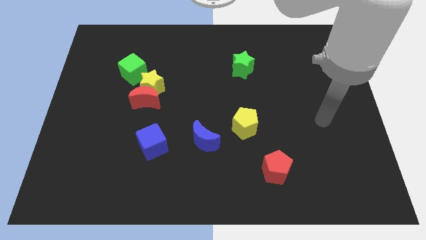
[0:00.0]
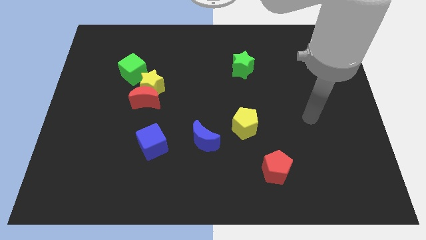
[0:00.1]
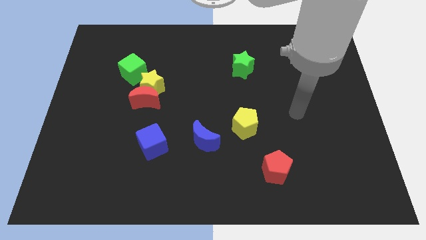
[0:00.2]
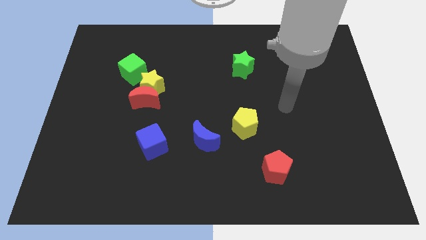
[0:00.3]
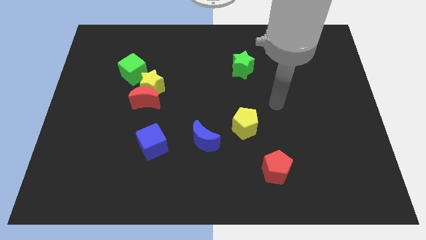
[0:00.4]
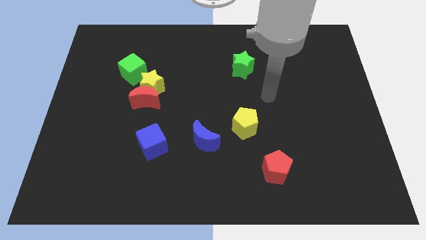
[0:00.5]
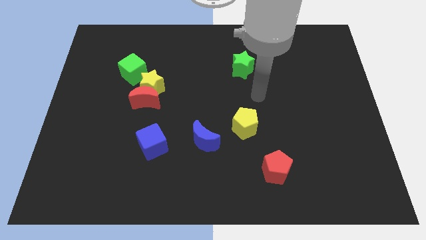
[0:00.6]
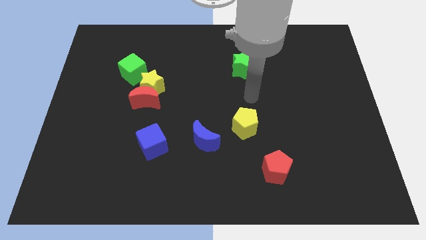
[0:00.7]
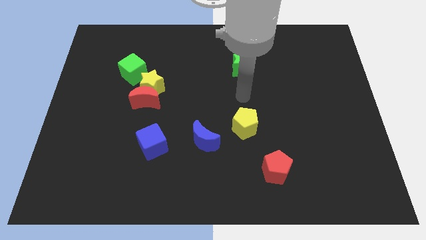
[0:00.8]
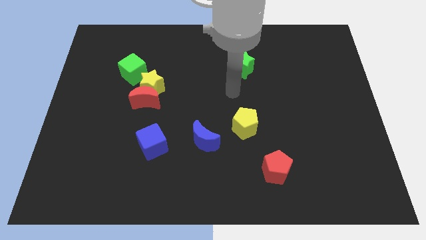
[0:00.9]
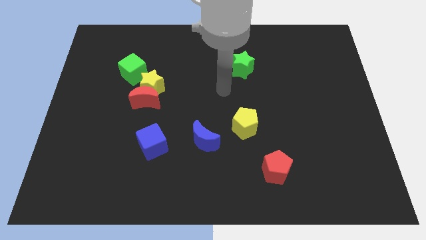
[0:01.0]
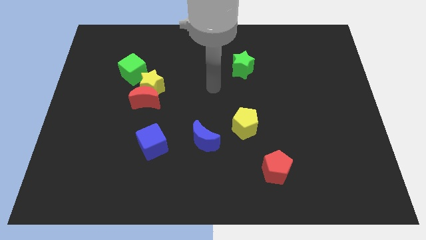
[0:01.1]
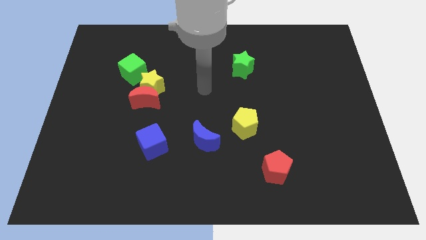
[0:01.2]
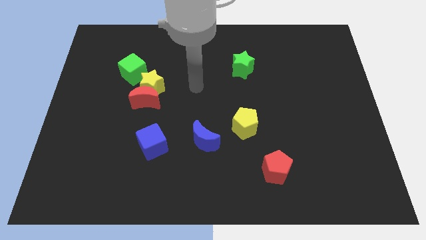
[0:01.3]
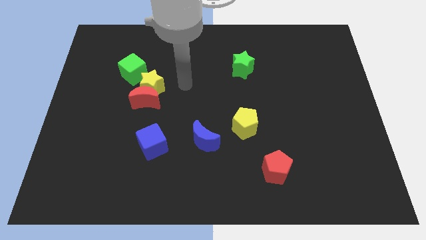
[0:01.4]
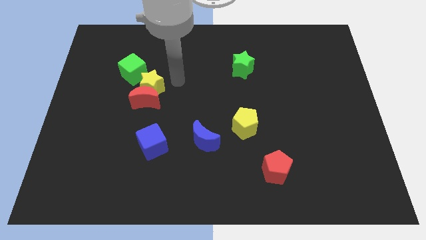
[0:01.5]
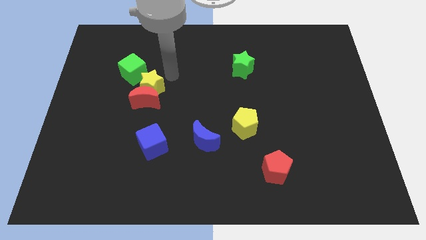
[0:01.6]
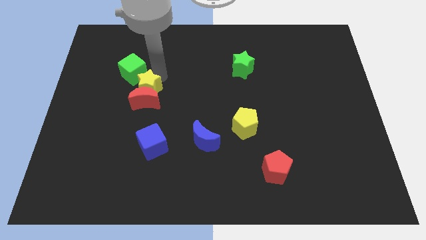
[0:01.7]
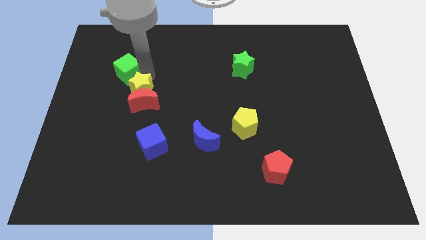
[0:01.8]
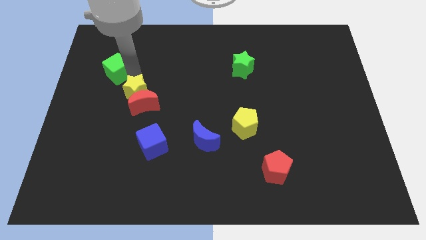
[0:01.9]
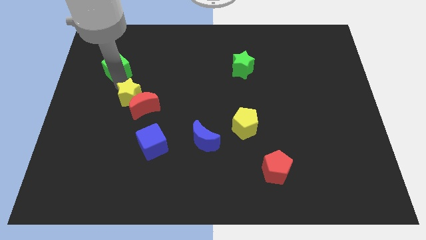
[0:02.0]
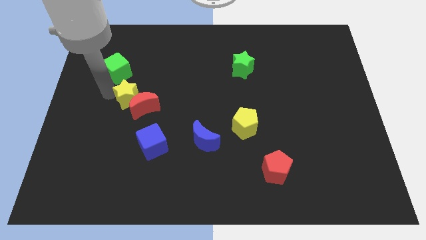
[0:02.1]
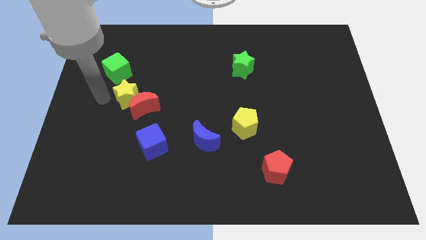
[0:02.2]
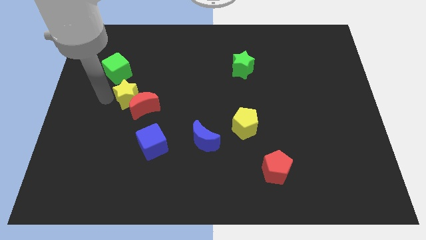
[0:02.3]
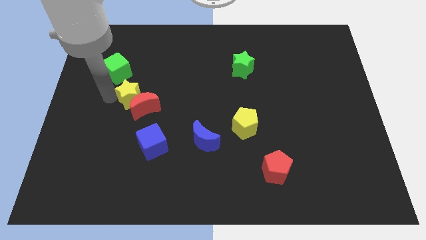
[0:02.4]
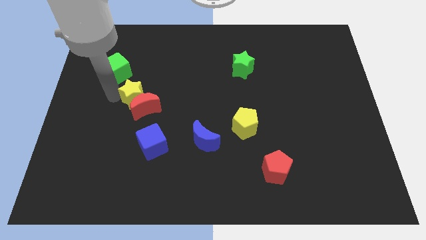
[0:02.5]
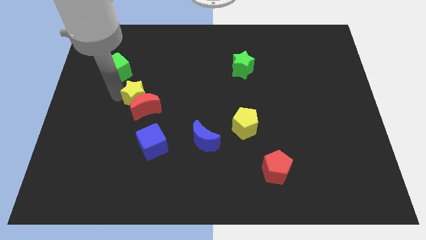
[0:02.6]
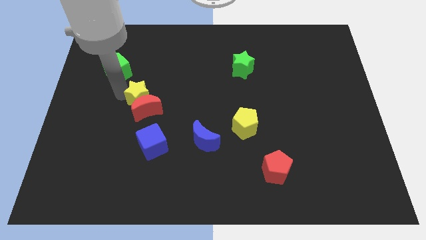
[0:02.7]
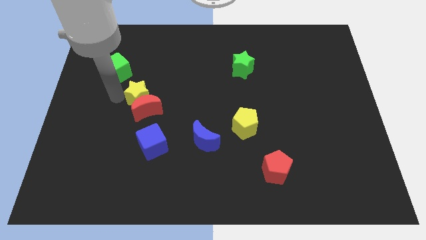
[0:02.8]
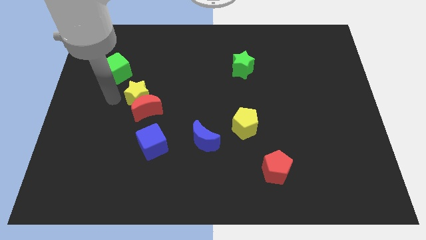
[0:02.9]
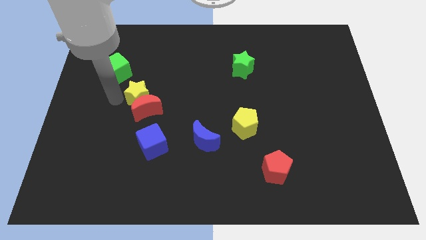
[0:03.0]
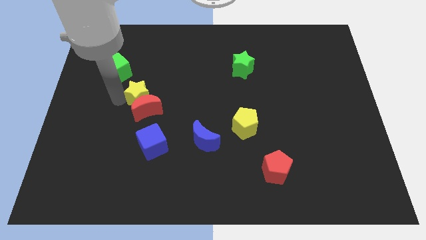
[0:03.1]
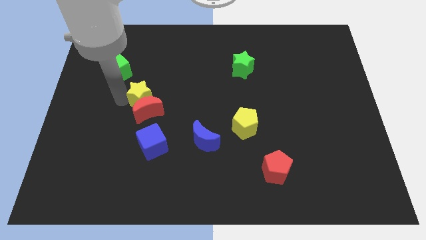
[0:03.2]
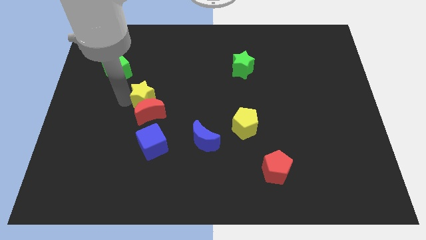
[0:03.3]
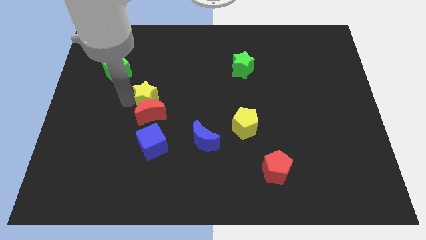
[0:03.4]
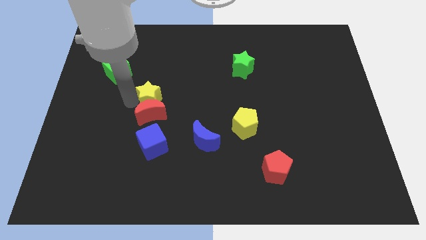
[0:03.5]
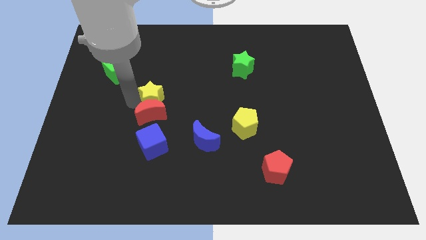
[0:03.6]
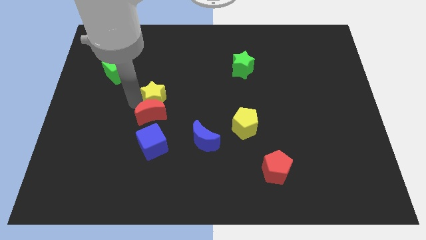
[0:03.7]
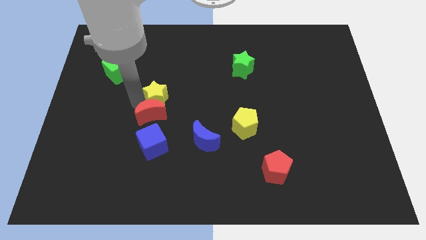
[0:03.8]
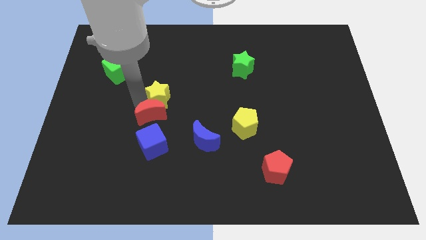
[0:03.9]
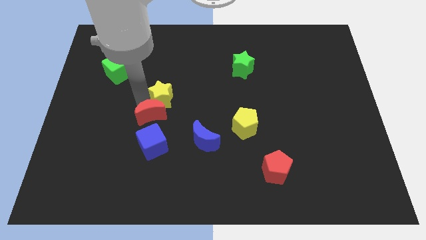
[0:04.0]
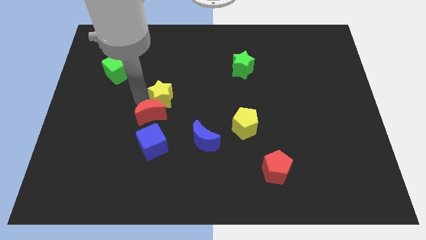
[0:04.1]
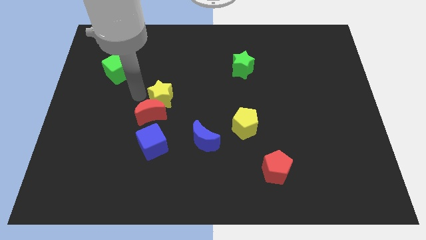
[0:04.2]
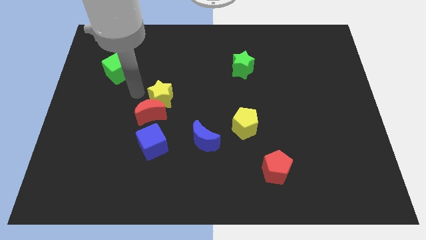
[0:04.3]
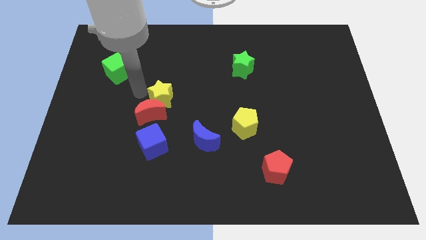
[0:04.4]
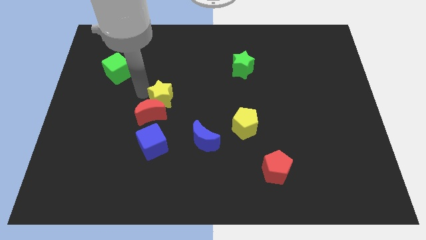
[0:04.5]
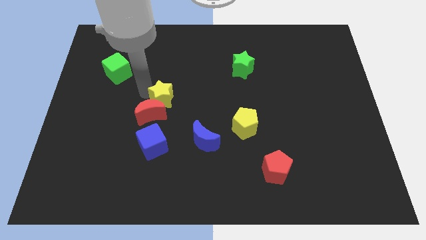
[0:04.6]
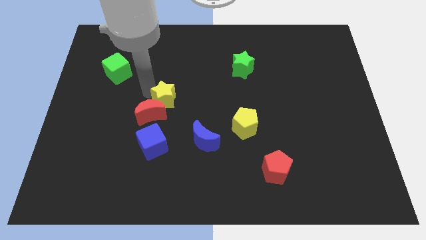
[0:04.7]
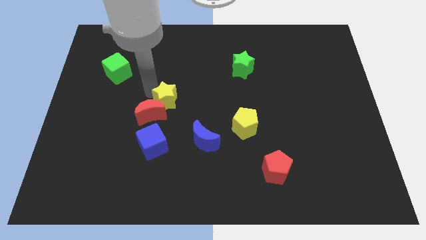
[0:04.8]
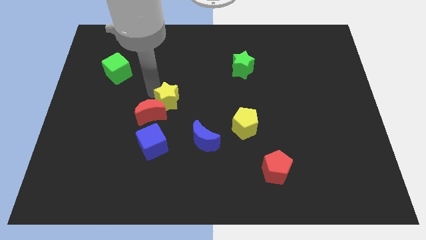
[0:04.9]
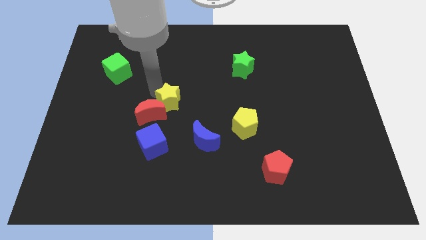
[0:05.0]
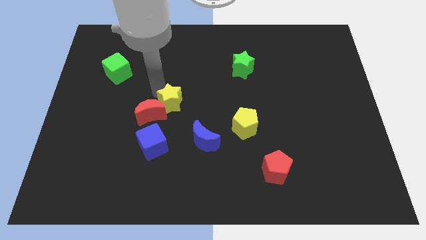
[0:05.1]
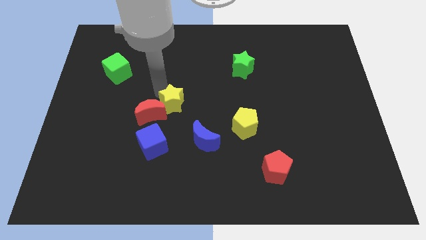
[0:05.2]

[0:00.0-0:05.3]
move the yellow star away from the red moon and green cube

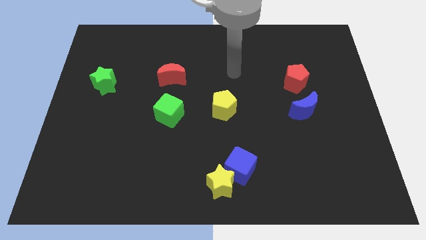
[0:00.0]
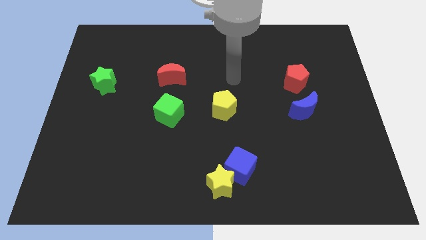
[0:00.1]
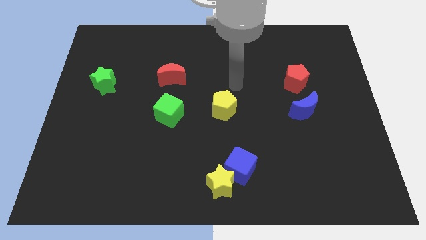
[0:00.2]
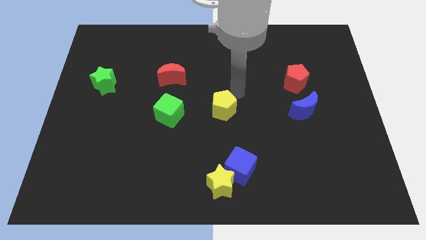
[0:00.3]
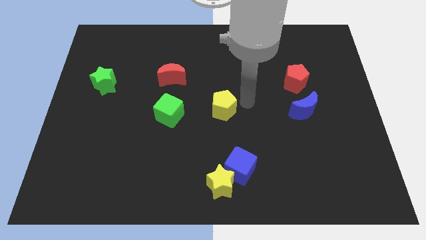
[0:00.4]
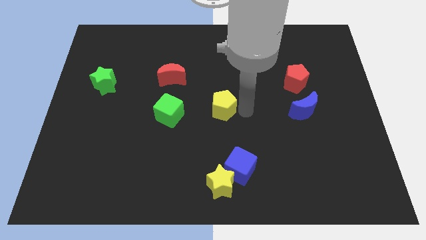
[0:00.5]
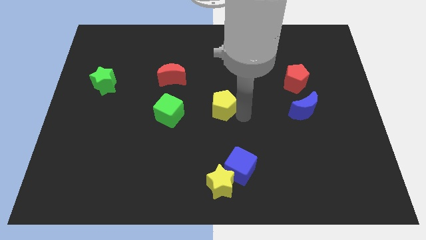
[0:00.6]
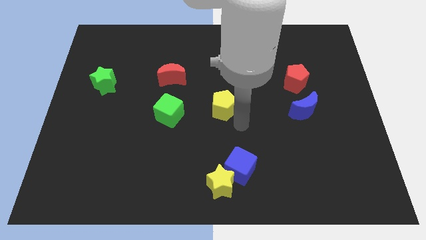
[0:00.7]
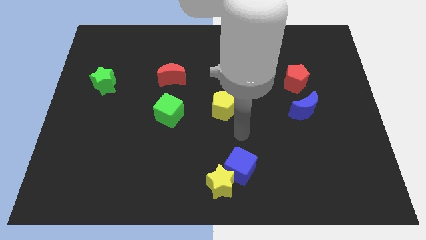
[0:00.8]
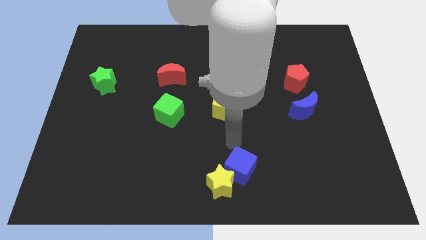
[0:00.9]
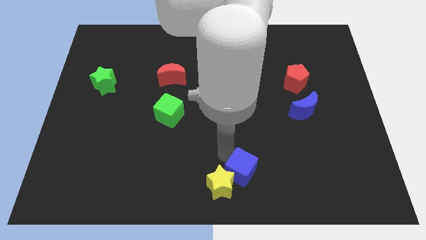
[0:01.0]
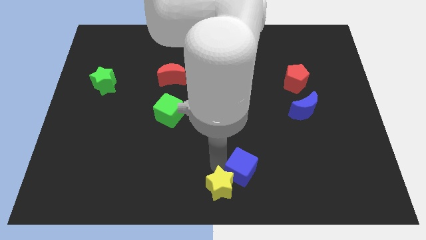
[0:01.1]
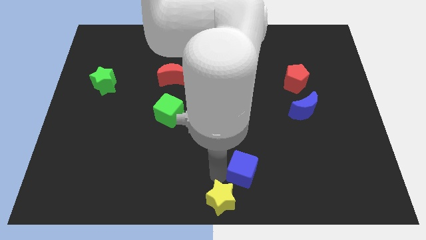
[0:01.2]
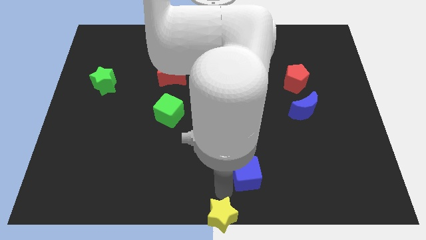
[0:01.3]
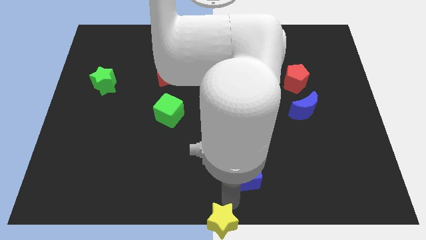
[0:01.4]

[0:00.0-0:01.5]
separate the blue cube from the yellow star

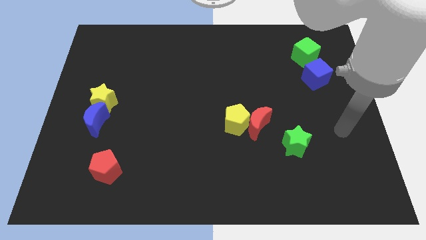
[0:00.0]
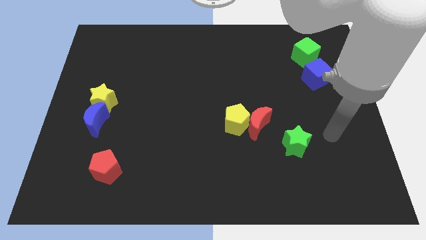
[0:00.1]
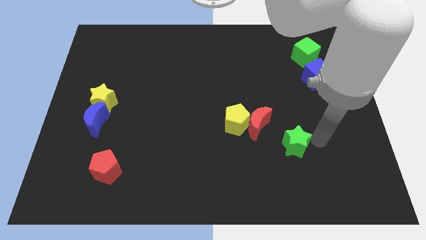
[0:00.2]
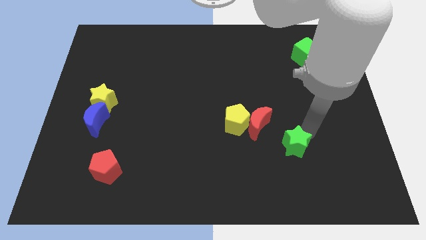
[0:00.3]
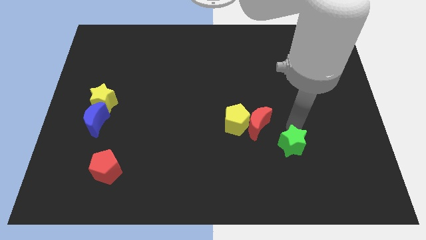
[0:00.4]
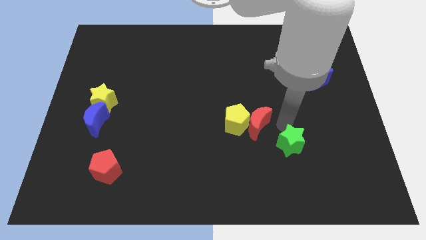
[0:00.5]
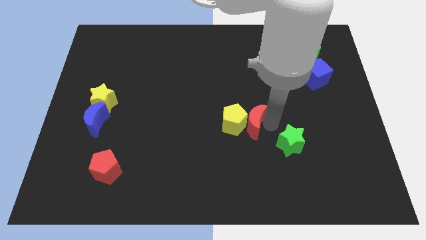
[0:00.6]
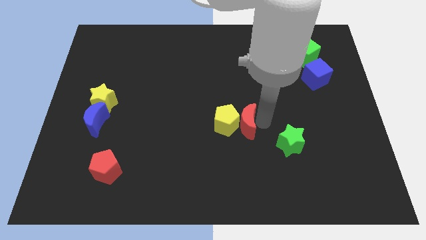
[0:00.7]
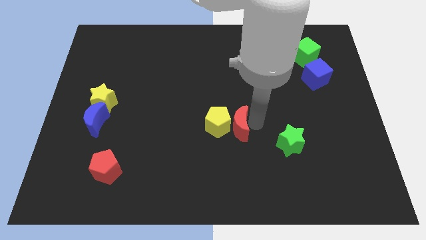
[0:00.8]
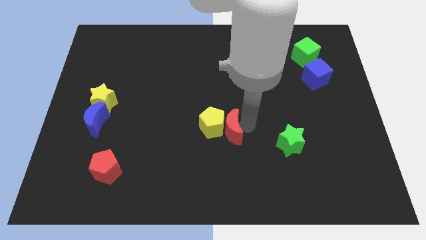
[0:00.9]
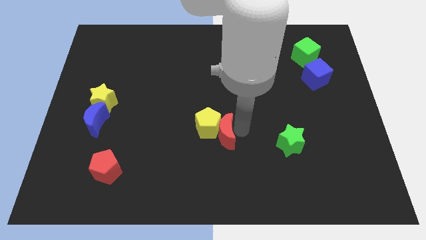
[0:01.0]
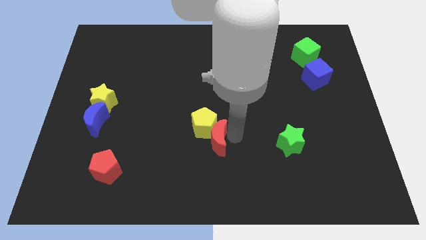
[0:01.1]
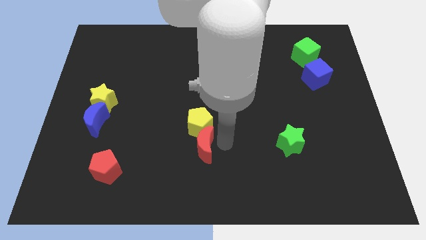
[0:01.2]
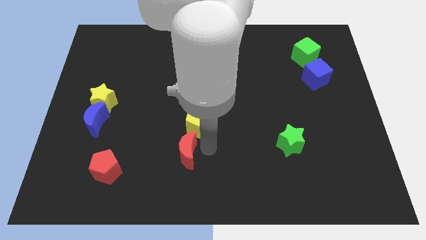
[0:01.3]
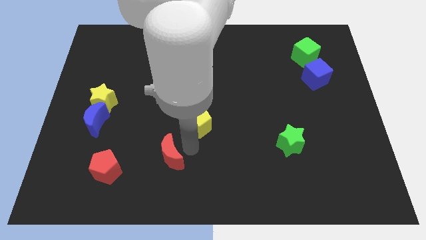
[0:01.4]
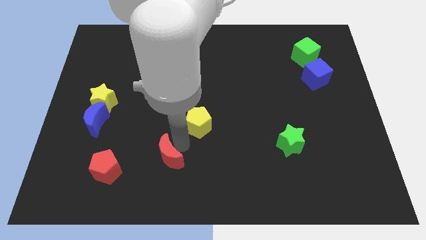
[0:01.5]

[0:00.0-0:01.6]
separate the yellow pentagon from the red moon

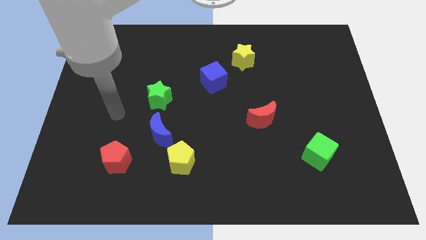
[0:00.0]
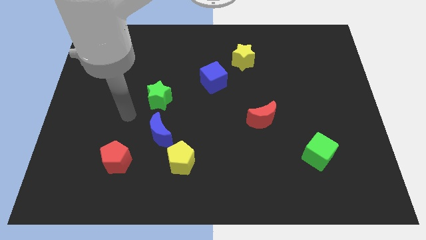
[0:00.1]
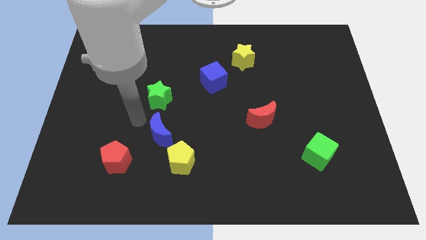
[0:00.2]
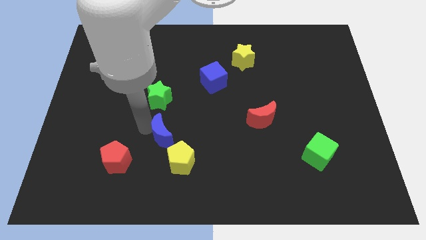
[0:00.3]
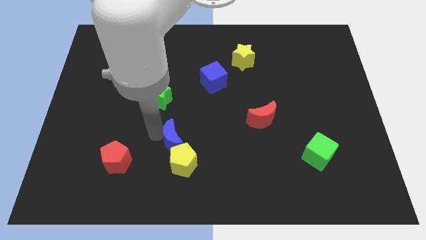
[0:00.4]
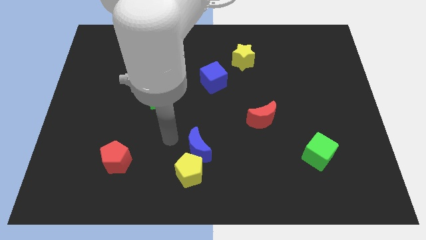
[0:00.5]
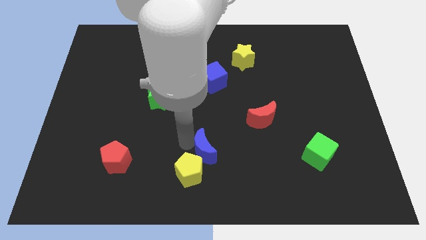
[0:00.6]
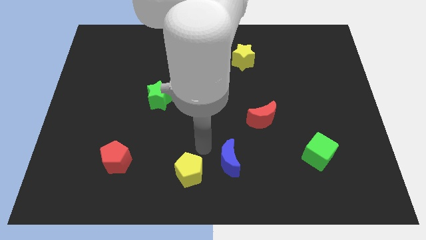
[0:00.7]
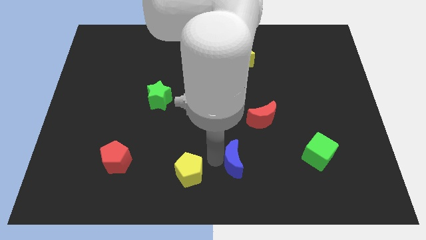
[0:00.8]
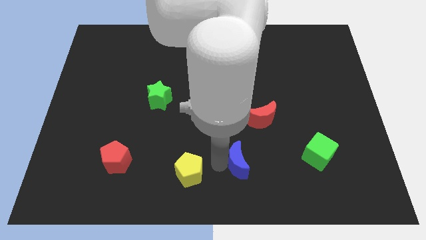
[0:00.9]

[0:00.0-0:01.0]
pull the yellow pentagon apart from the blue moon
